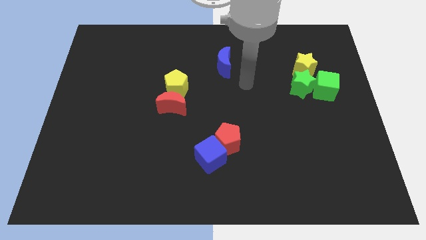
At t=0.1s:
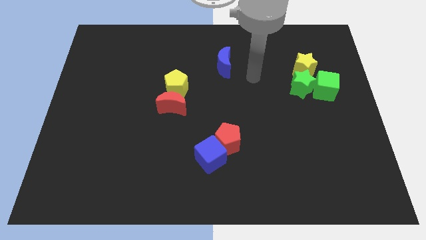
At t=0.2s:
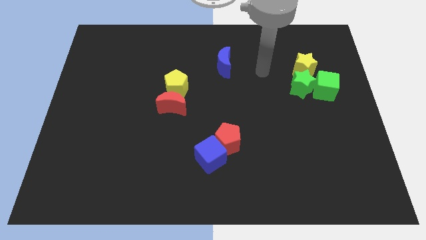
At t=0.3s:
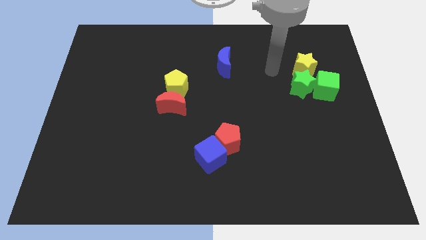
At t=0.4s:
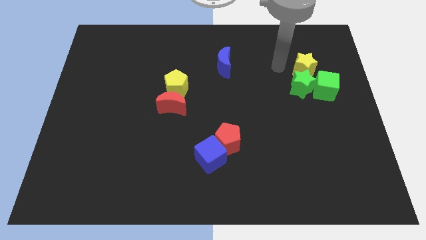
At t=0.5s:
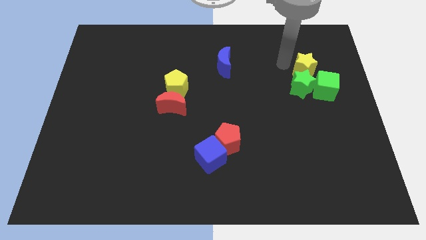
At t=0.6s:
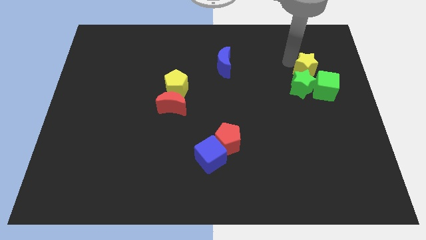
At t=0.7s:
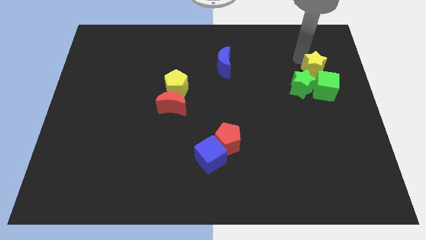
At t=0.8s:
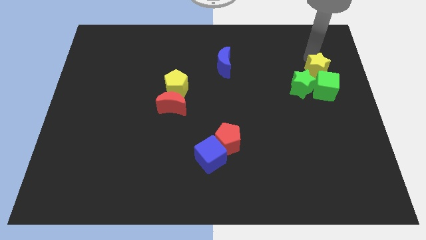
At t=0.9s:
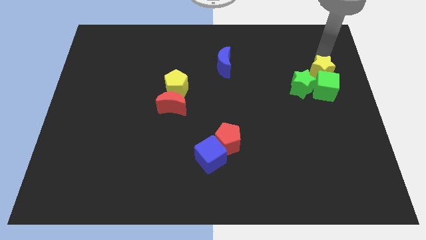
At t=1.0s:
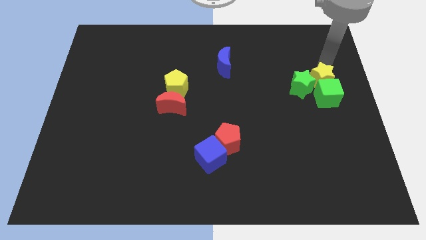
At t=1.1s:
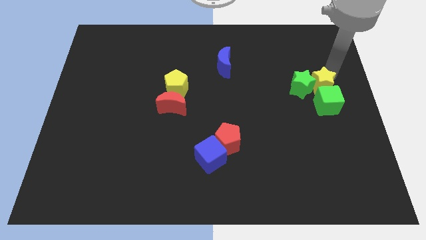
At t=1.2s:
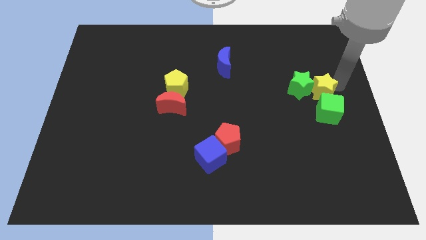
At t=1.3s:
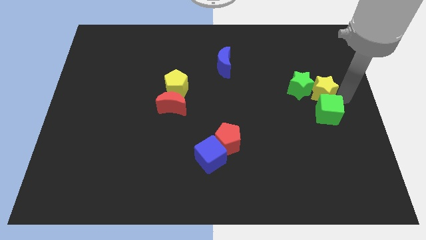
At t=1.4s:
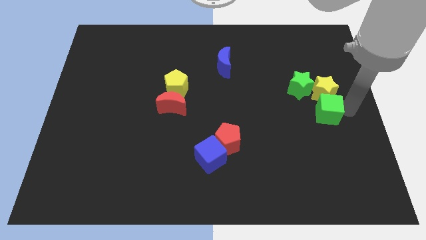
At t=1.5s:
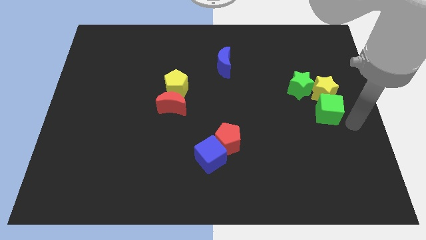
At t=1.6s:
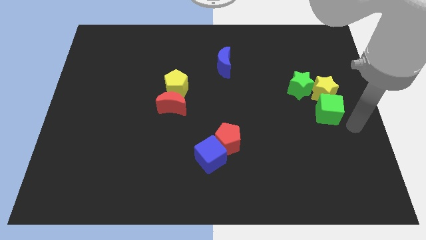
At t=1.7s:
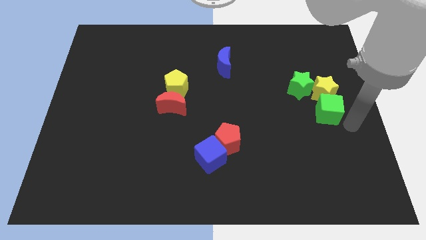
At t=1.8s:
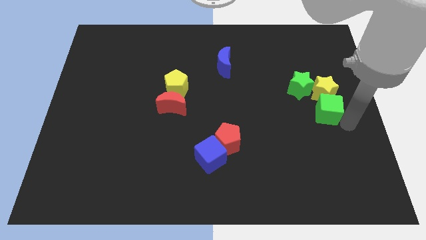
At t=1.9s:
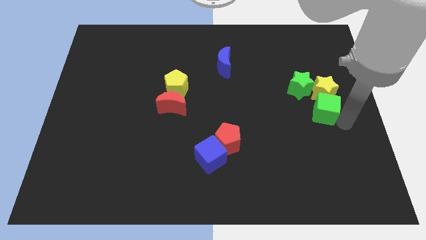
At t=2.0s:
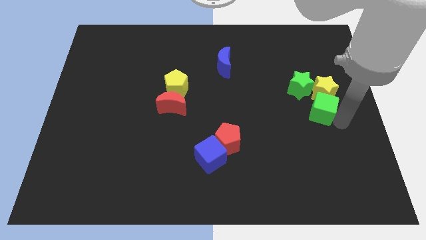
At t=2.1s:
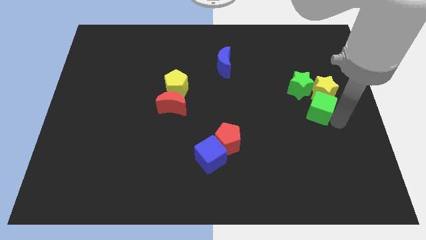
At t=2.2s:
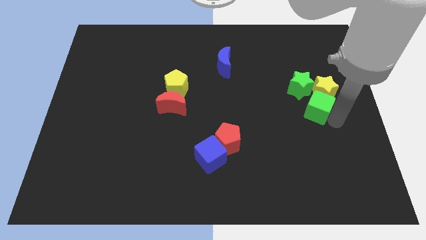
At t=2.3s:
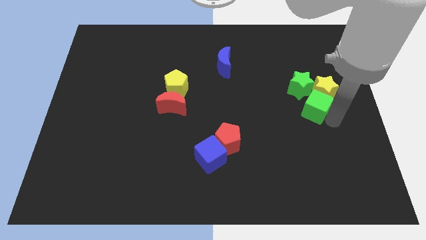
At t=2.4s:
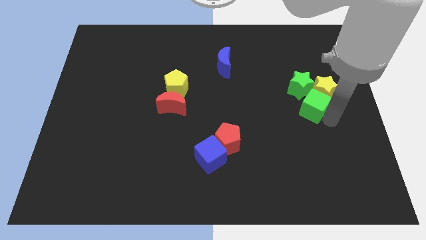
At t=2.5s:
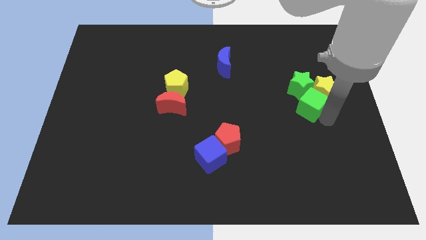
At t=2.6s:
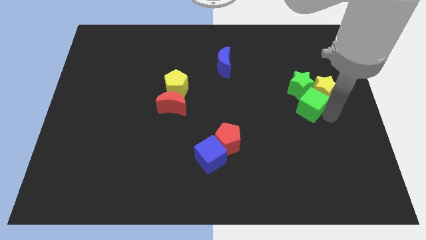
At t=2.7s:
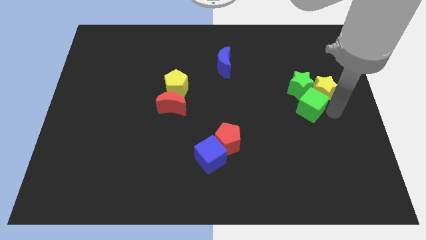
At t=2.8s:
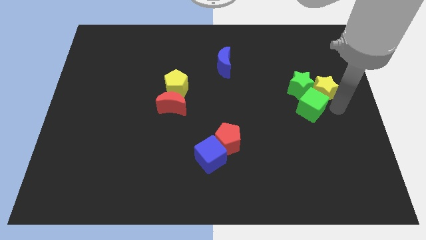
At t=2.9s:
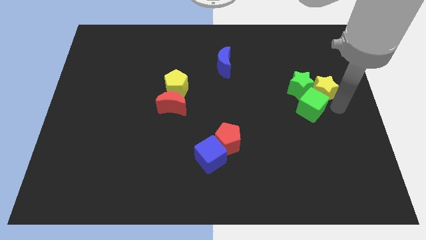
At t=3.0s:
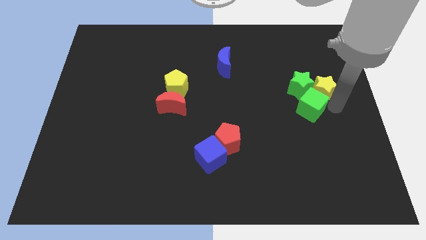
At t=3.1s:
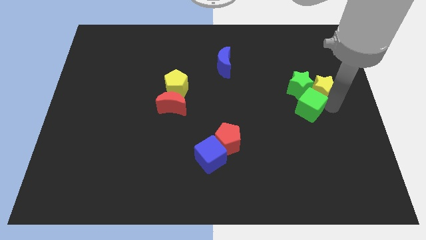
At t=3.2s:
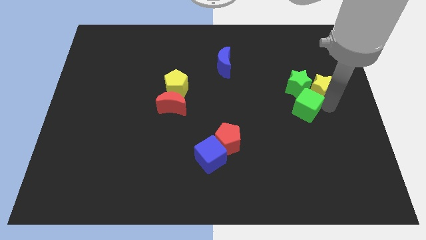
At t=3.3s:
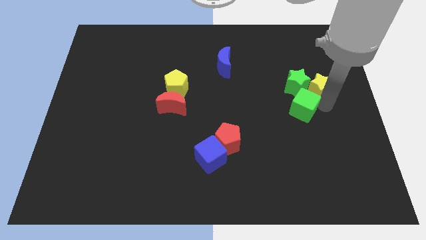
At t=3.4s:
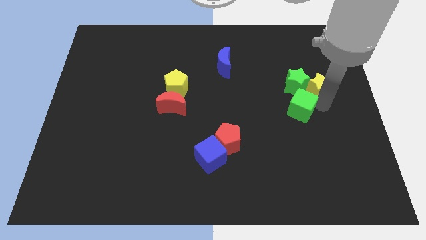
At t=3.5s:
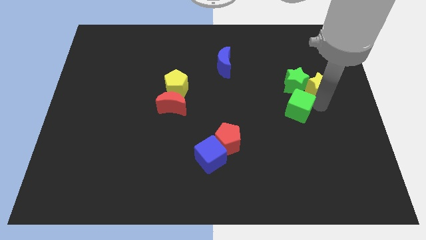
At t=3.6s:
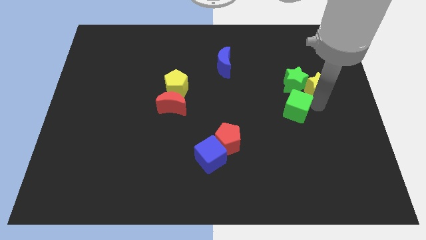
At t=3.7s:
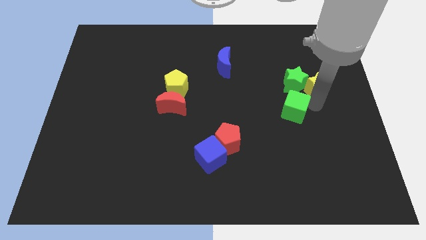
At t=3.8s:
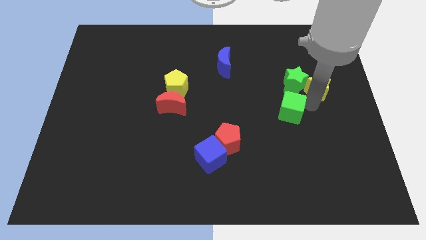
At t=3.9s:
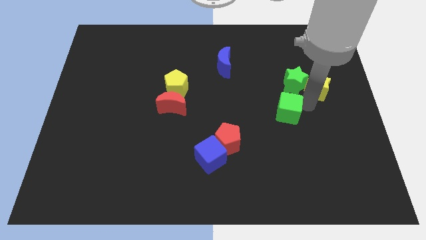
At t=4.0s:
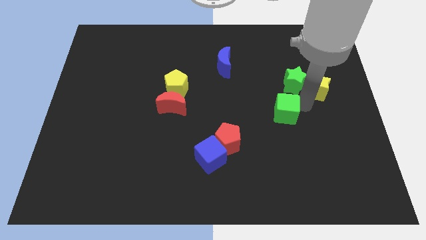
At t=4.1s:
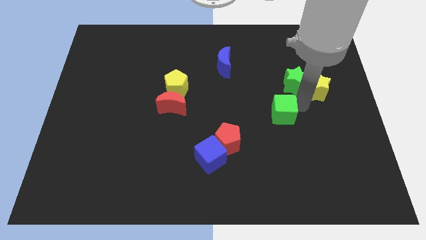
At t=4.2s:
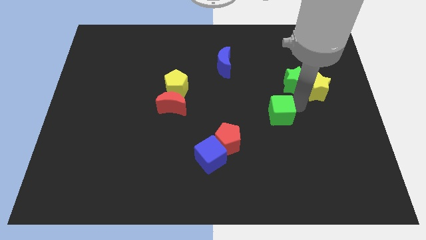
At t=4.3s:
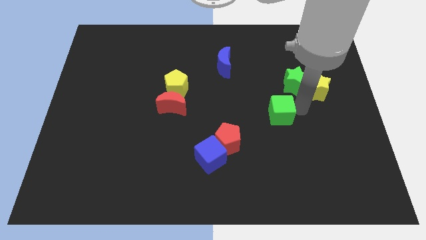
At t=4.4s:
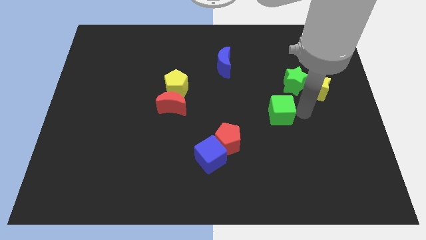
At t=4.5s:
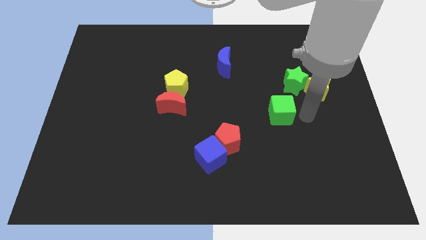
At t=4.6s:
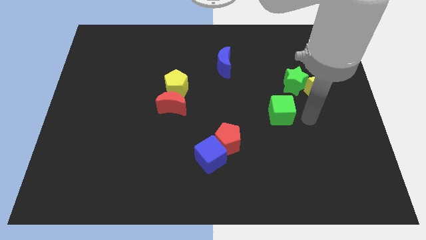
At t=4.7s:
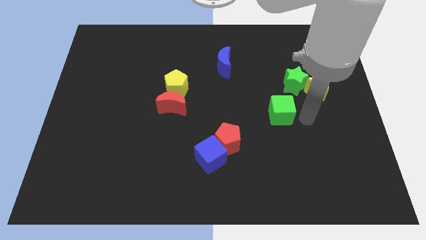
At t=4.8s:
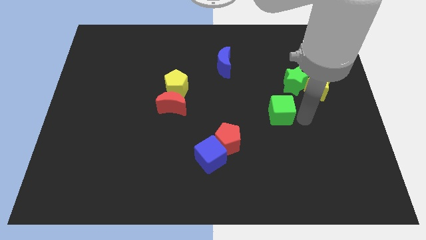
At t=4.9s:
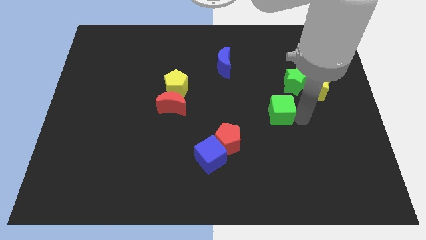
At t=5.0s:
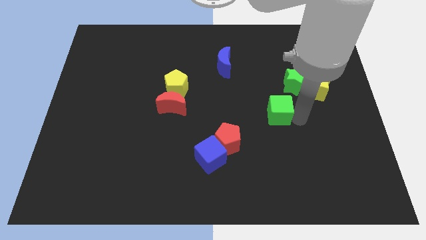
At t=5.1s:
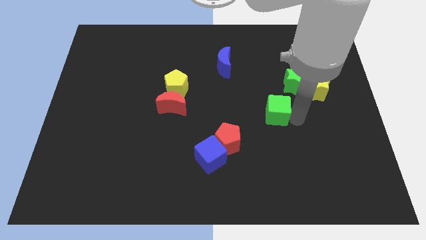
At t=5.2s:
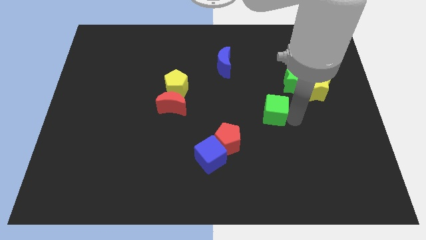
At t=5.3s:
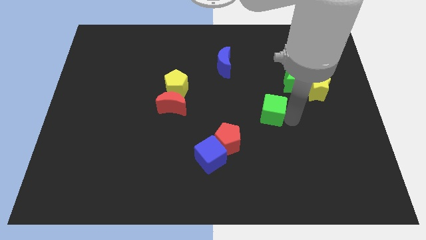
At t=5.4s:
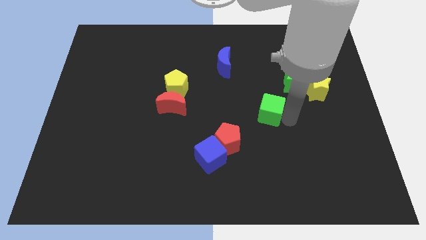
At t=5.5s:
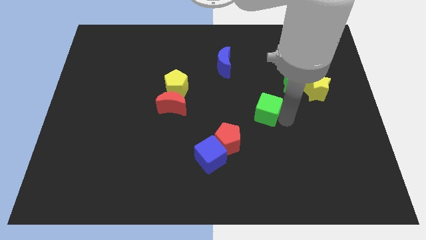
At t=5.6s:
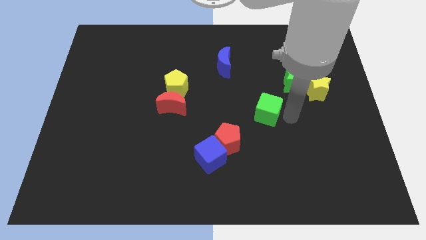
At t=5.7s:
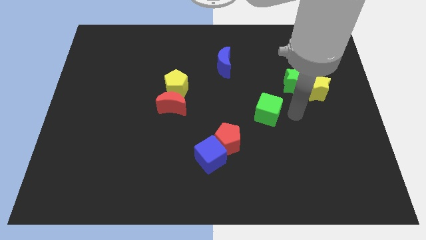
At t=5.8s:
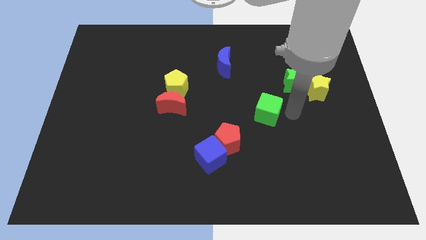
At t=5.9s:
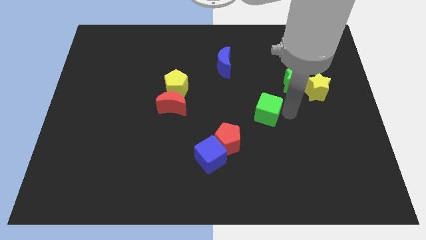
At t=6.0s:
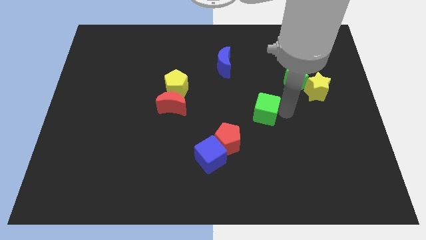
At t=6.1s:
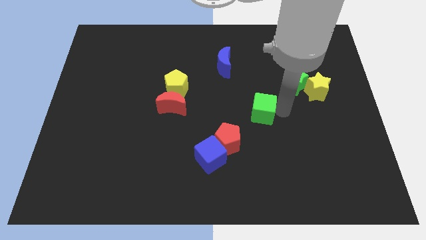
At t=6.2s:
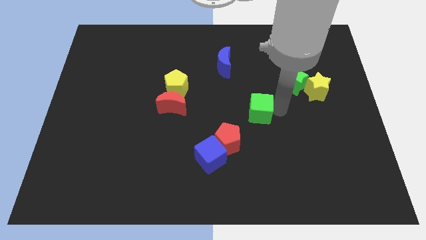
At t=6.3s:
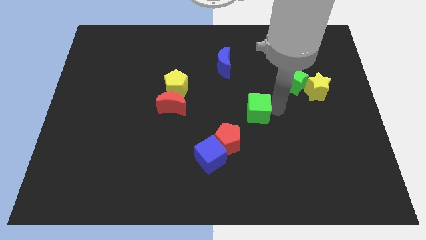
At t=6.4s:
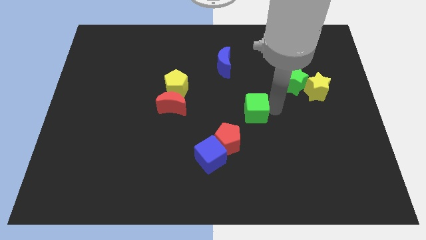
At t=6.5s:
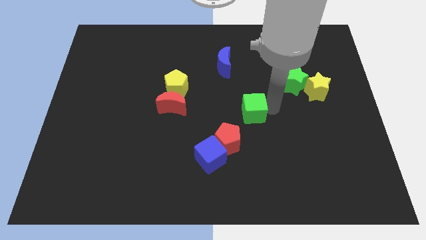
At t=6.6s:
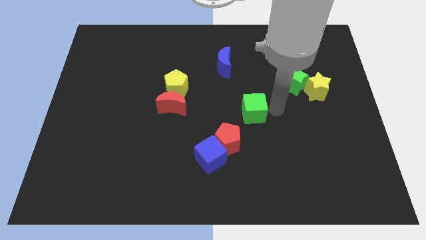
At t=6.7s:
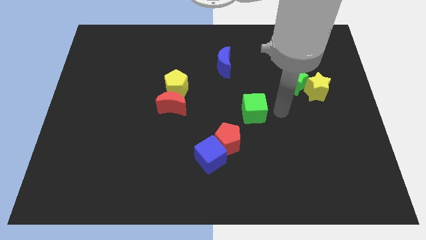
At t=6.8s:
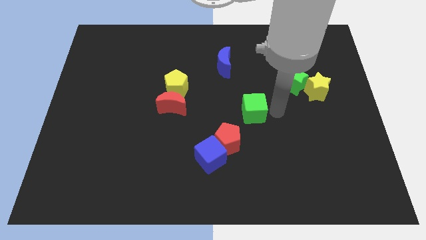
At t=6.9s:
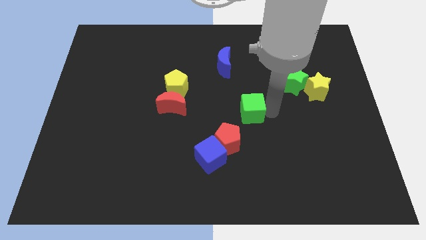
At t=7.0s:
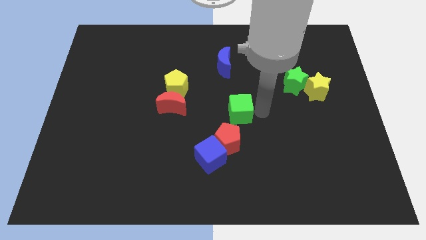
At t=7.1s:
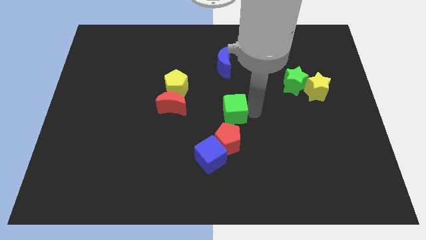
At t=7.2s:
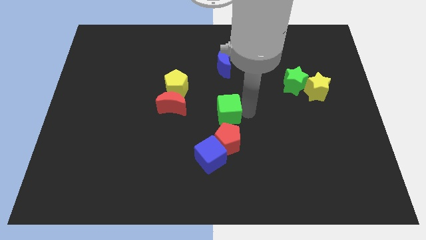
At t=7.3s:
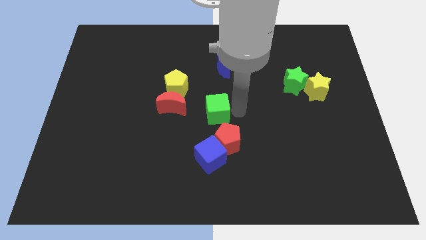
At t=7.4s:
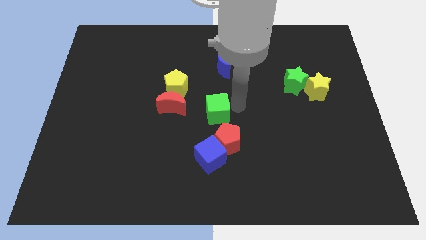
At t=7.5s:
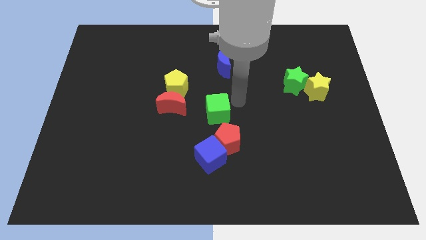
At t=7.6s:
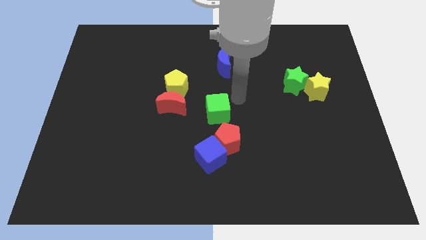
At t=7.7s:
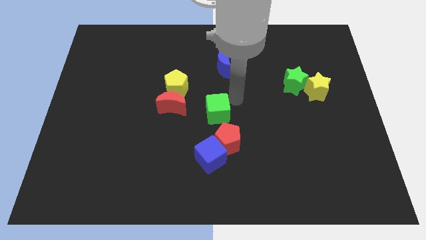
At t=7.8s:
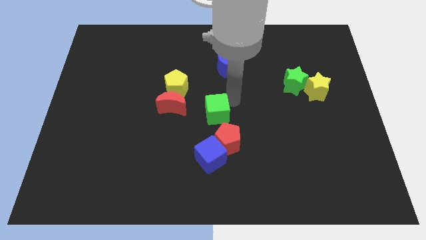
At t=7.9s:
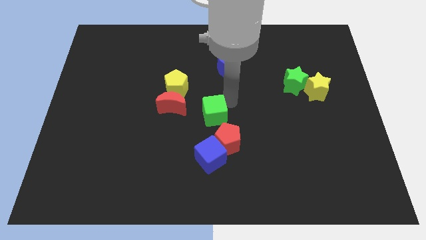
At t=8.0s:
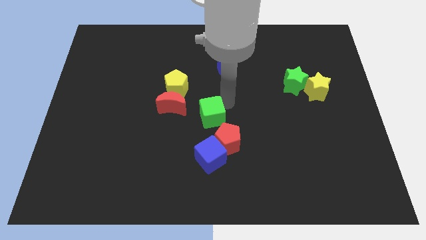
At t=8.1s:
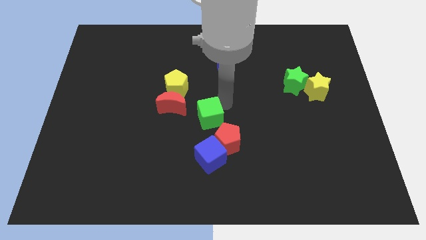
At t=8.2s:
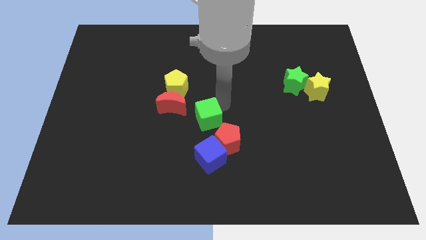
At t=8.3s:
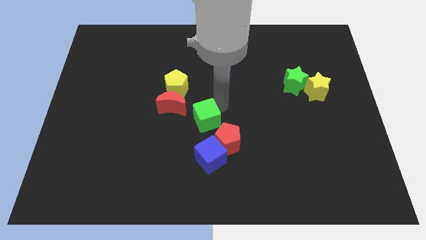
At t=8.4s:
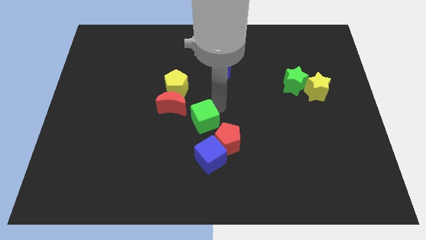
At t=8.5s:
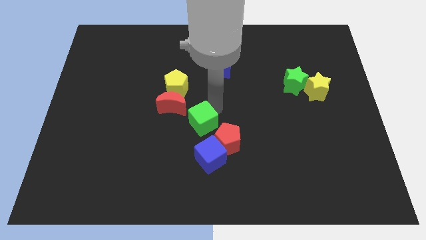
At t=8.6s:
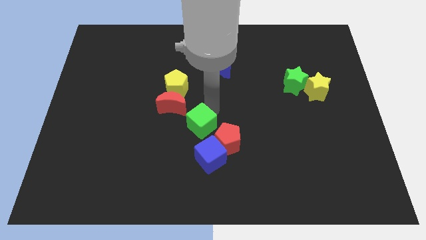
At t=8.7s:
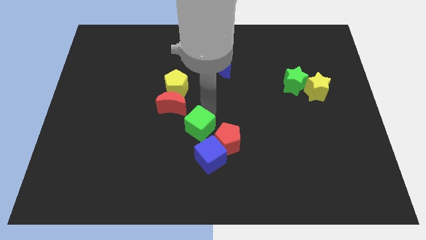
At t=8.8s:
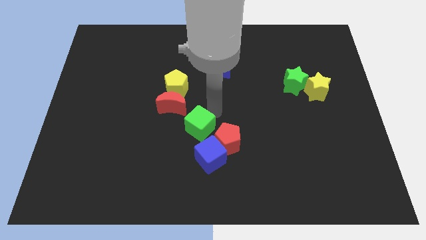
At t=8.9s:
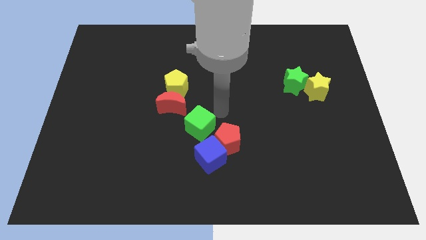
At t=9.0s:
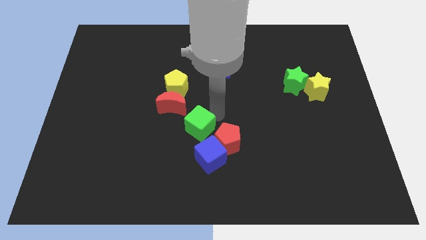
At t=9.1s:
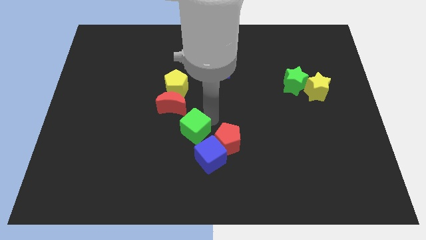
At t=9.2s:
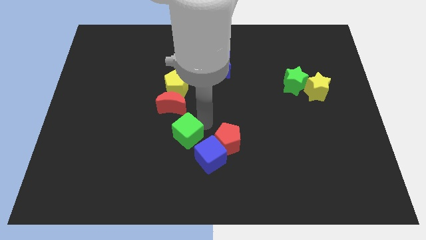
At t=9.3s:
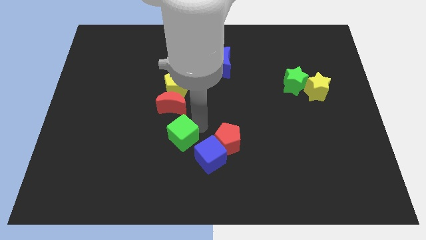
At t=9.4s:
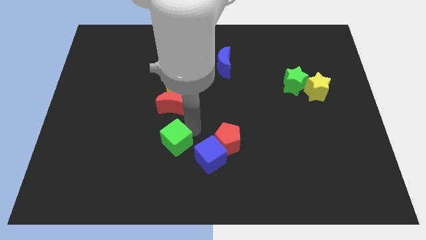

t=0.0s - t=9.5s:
slide the green cube just left of the blue cube
